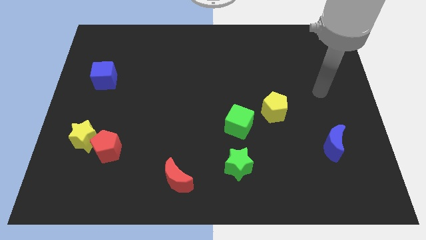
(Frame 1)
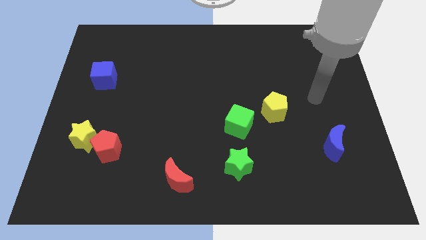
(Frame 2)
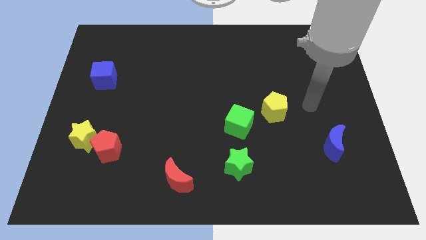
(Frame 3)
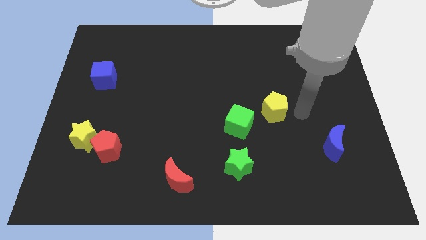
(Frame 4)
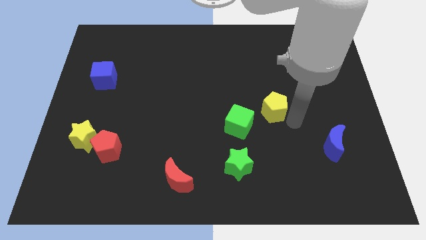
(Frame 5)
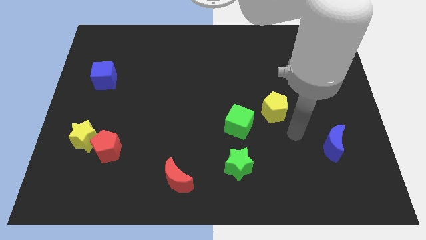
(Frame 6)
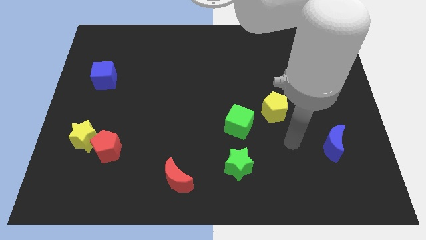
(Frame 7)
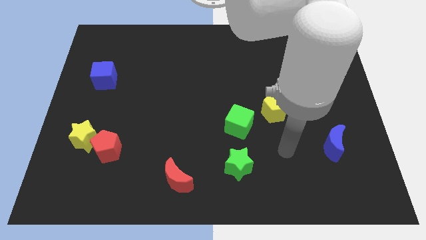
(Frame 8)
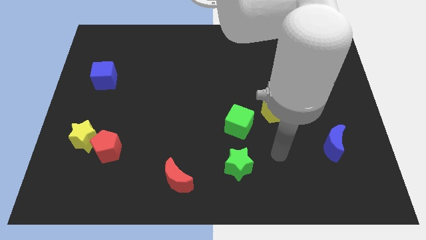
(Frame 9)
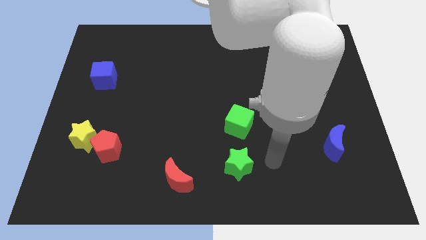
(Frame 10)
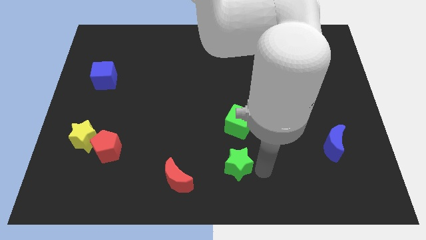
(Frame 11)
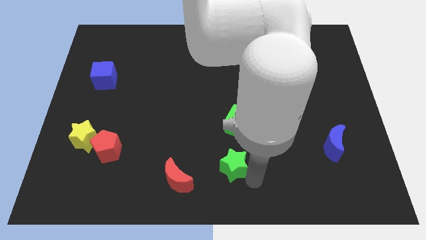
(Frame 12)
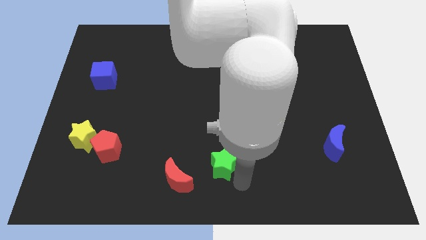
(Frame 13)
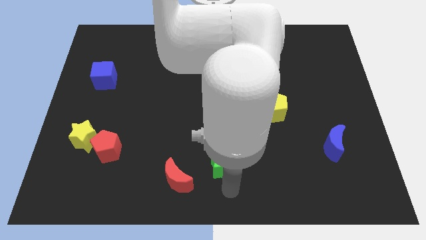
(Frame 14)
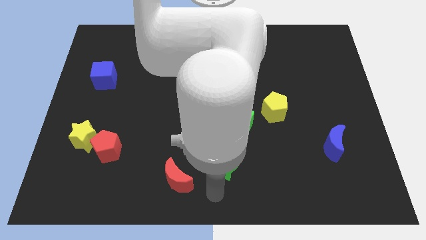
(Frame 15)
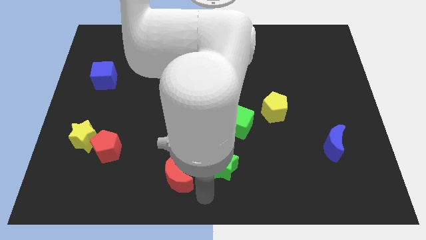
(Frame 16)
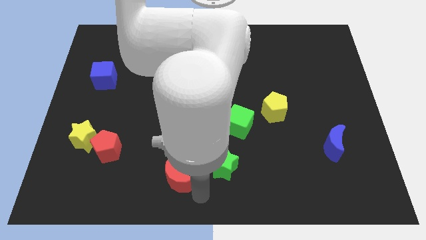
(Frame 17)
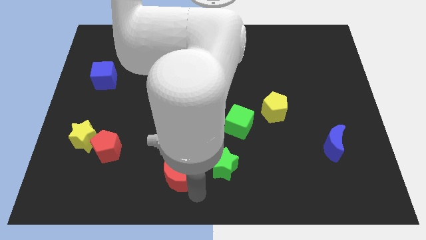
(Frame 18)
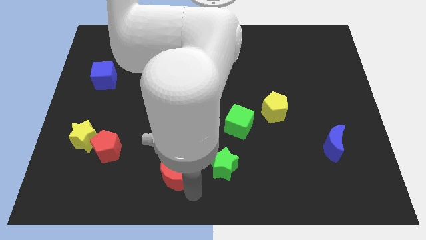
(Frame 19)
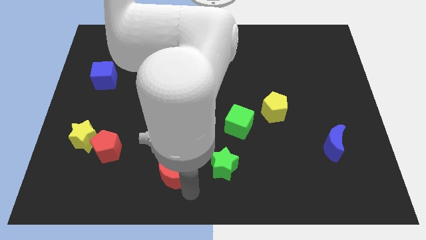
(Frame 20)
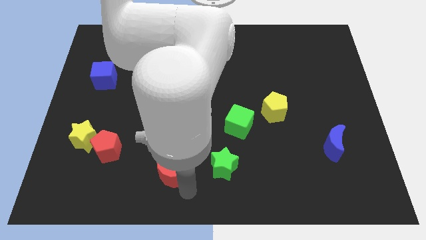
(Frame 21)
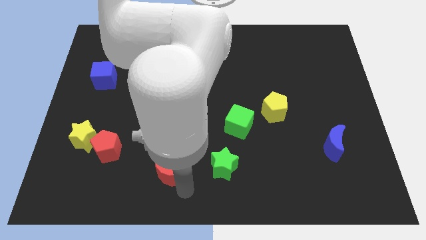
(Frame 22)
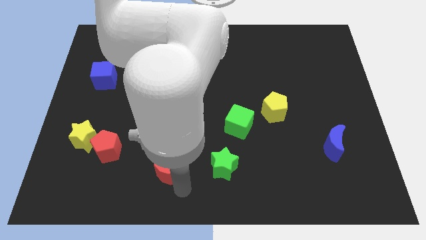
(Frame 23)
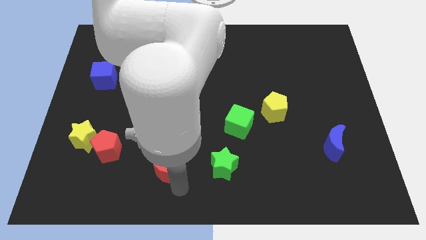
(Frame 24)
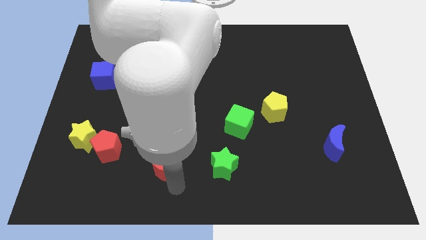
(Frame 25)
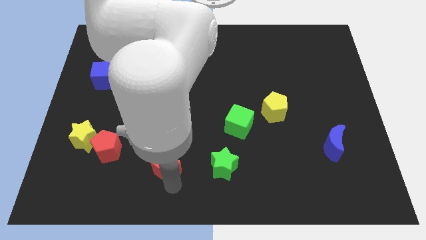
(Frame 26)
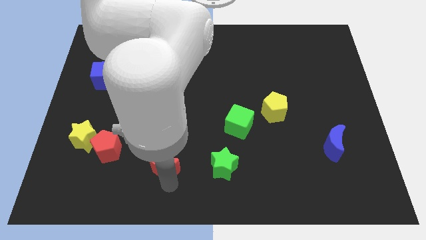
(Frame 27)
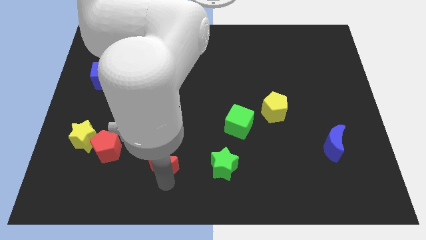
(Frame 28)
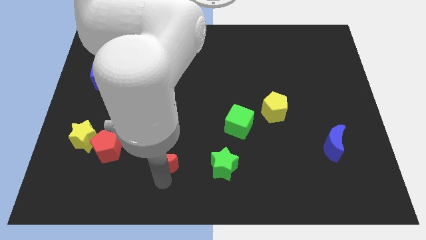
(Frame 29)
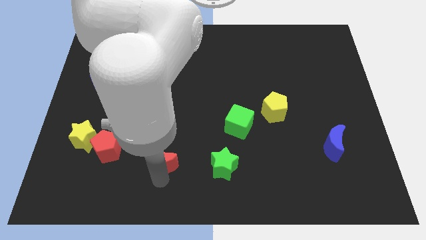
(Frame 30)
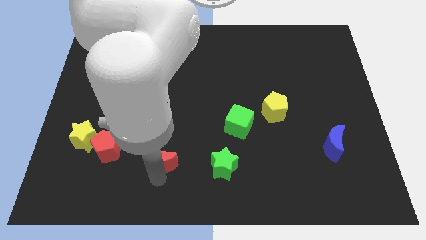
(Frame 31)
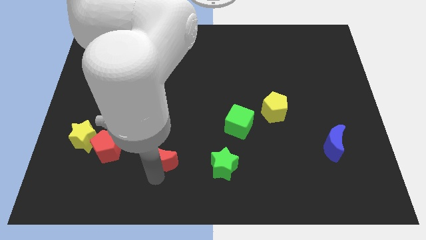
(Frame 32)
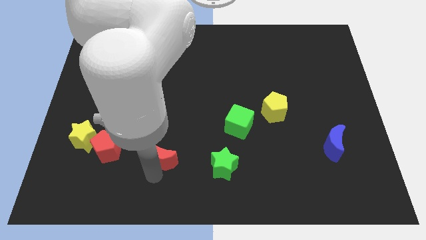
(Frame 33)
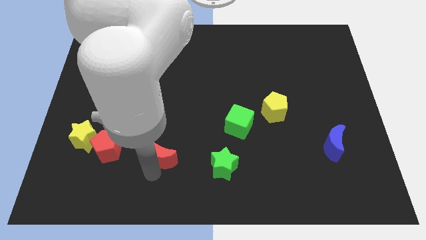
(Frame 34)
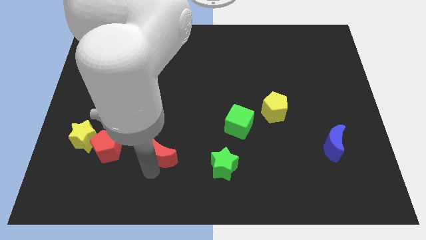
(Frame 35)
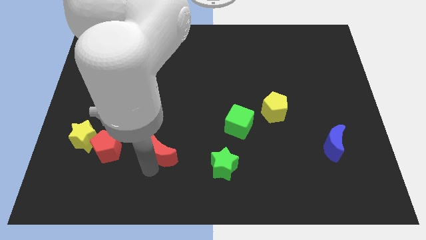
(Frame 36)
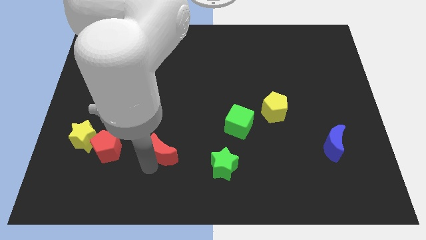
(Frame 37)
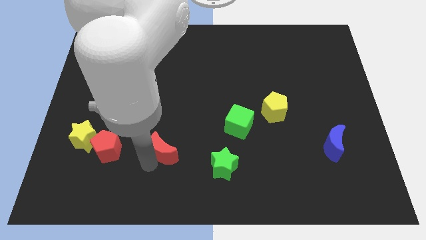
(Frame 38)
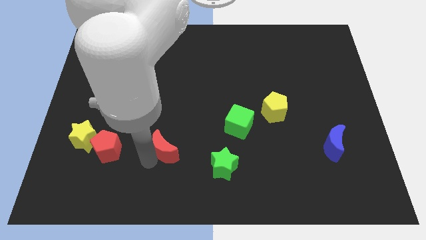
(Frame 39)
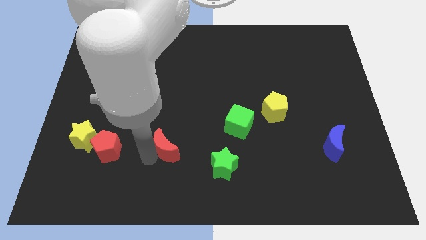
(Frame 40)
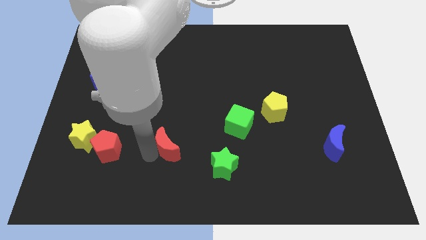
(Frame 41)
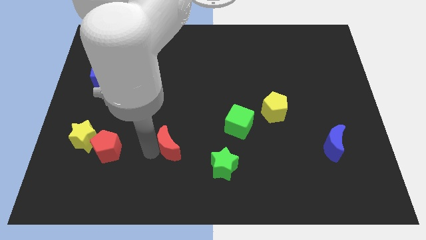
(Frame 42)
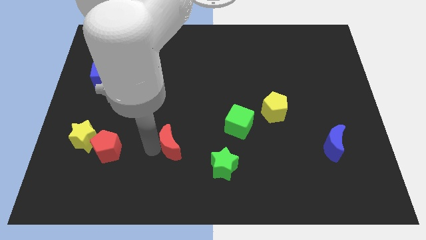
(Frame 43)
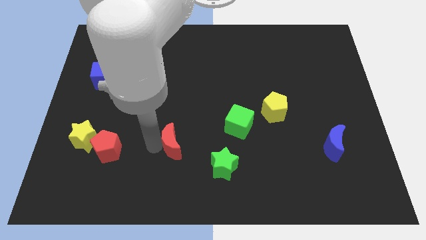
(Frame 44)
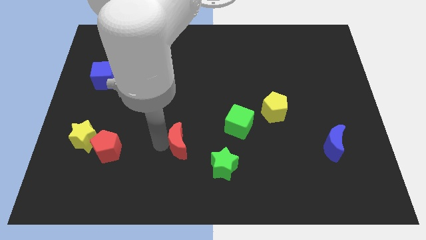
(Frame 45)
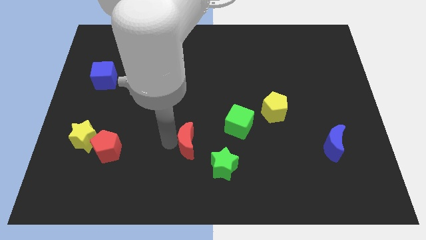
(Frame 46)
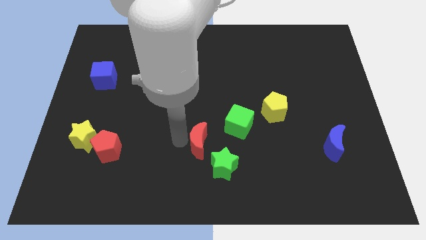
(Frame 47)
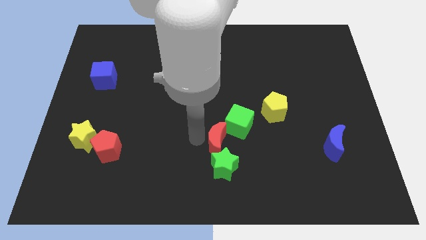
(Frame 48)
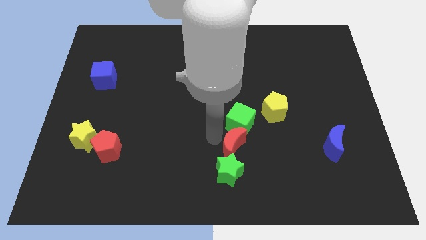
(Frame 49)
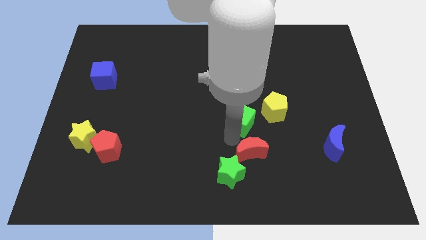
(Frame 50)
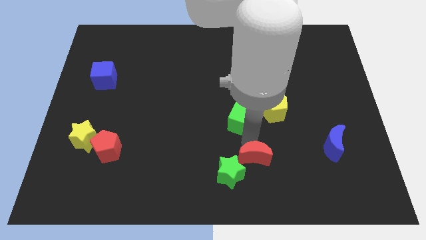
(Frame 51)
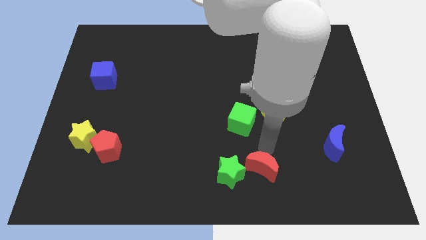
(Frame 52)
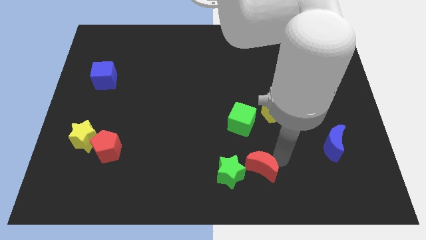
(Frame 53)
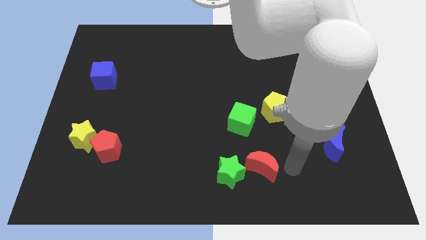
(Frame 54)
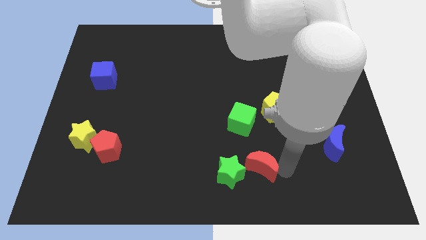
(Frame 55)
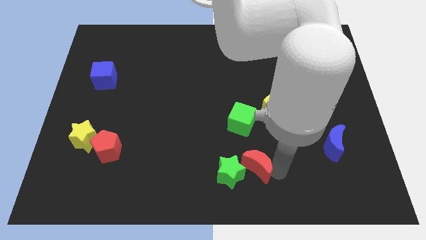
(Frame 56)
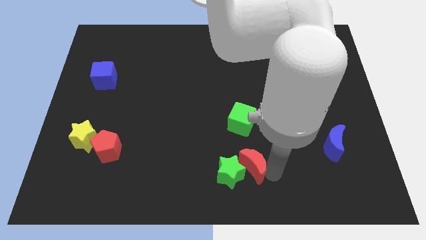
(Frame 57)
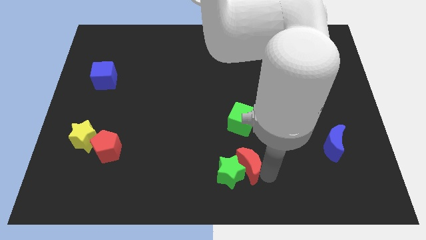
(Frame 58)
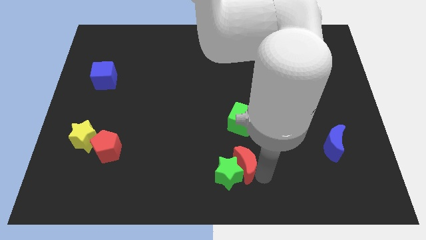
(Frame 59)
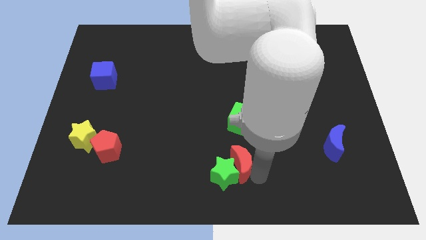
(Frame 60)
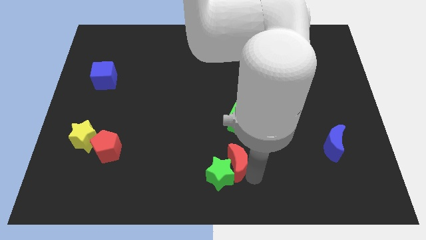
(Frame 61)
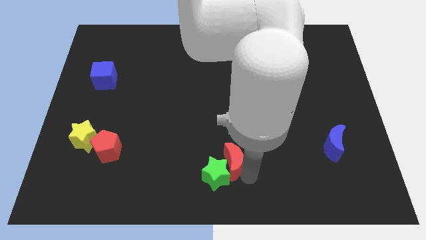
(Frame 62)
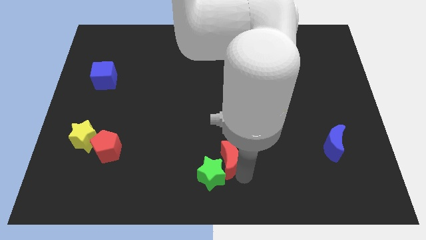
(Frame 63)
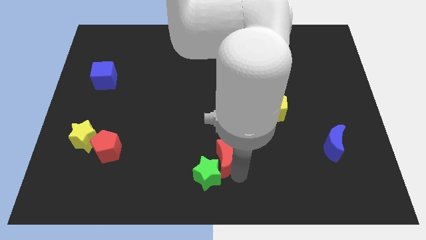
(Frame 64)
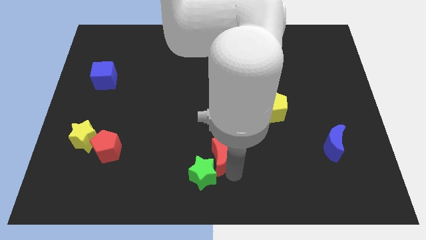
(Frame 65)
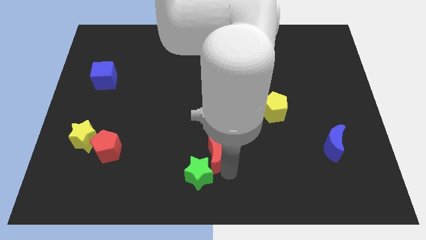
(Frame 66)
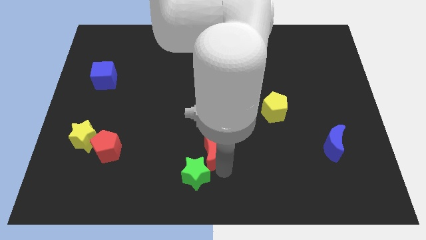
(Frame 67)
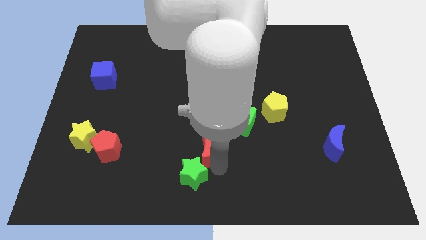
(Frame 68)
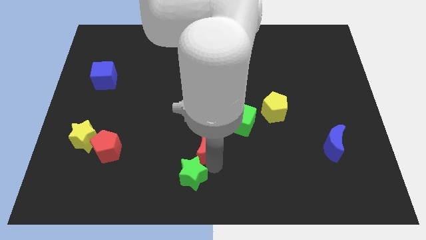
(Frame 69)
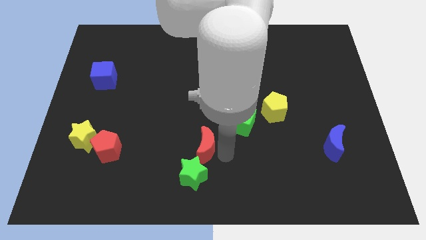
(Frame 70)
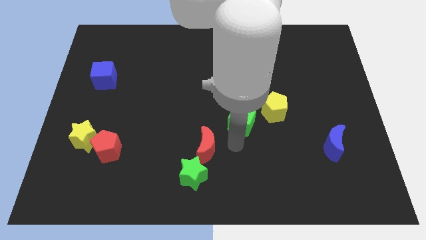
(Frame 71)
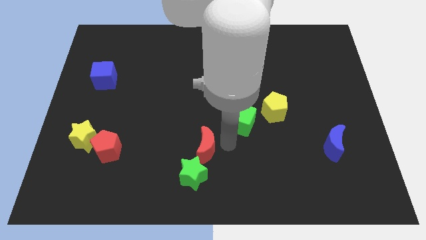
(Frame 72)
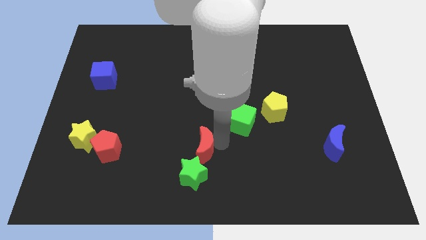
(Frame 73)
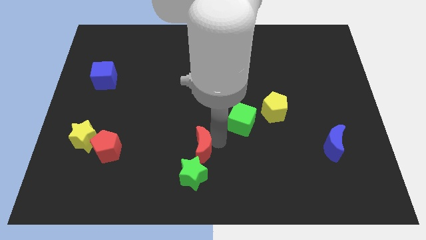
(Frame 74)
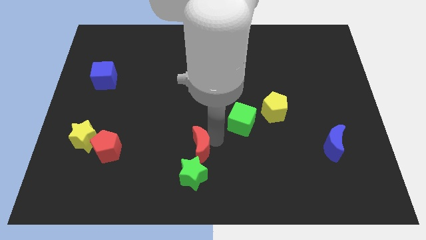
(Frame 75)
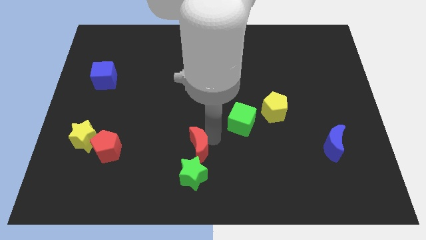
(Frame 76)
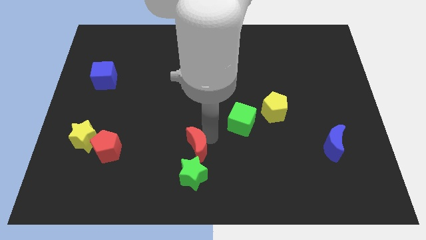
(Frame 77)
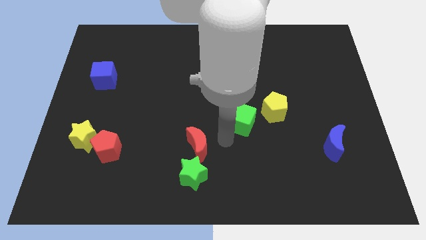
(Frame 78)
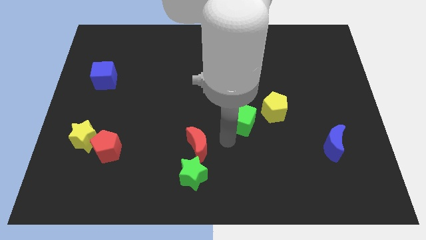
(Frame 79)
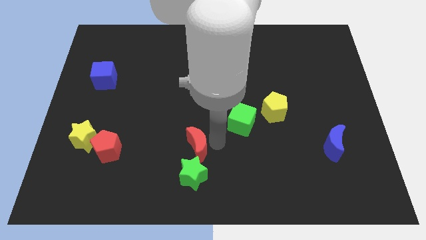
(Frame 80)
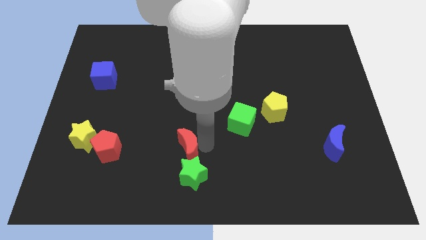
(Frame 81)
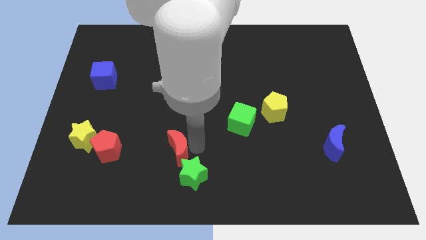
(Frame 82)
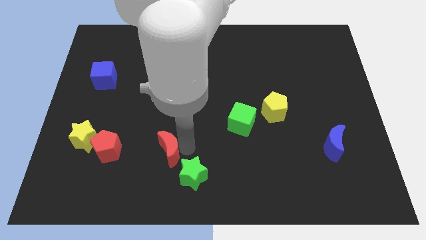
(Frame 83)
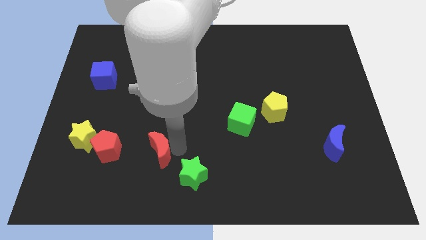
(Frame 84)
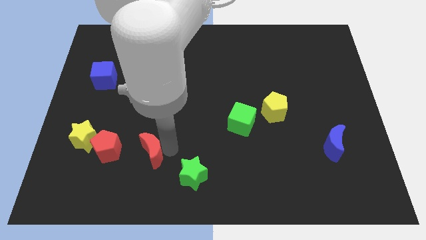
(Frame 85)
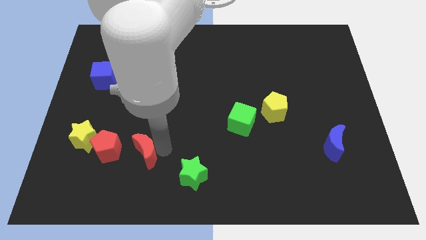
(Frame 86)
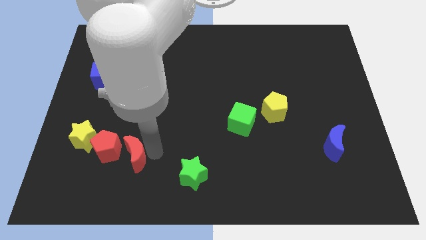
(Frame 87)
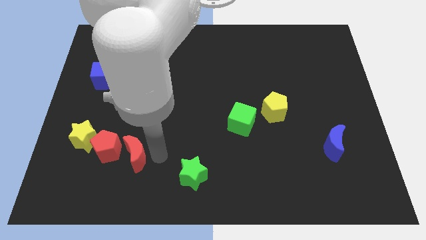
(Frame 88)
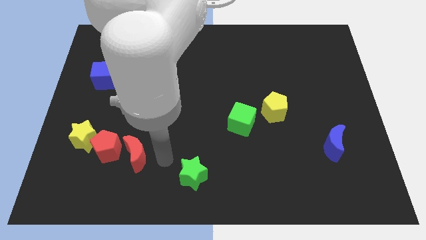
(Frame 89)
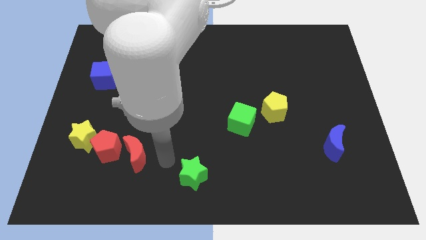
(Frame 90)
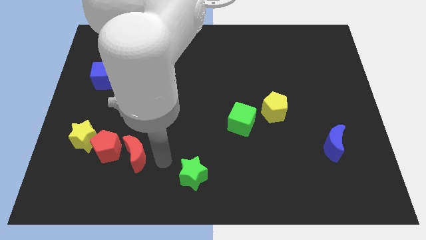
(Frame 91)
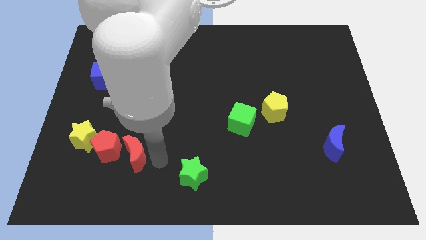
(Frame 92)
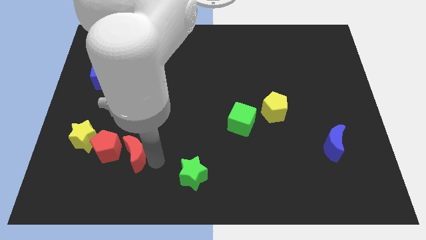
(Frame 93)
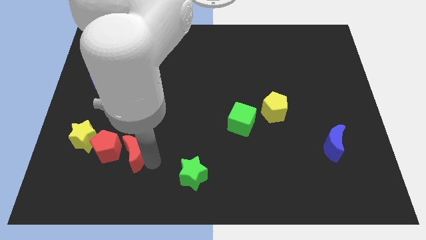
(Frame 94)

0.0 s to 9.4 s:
push the red moon next to the red pentagon
